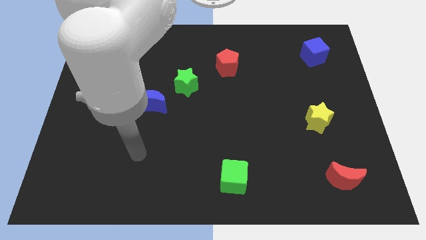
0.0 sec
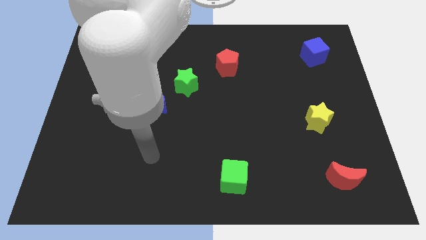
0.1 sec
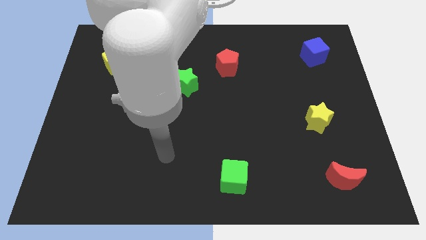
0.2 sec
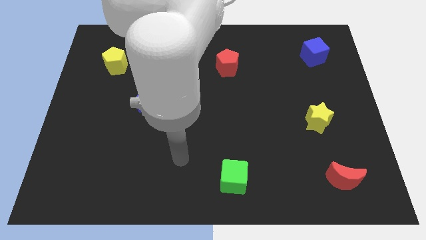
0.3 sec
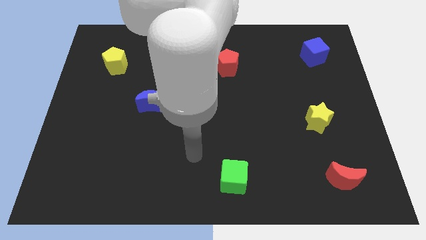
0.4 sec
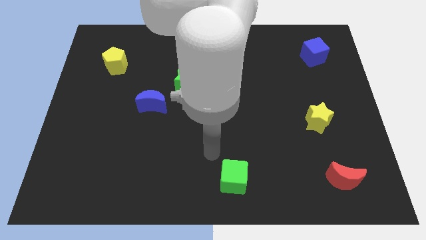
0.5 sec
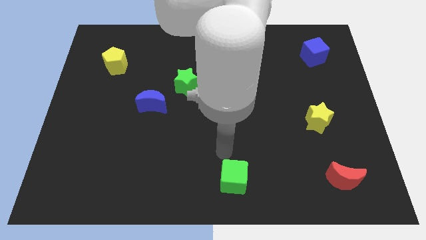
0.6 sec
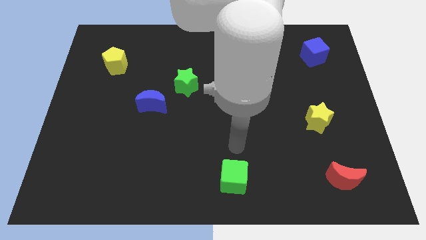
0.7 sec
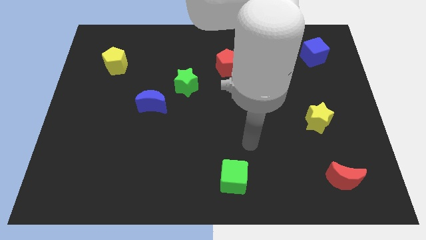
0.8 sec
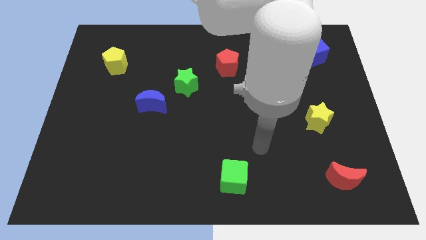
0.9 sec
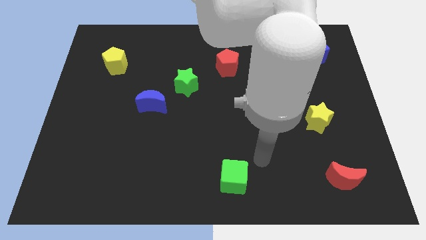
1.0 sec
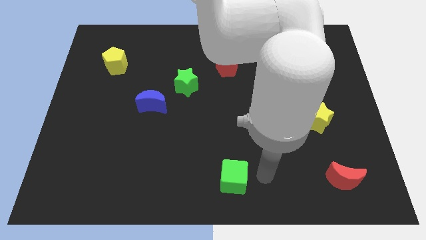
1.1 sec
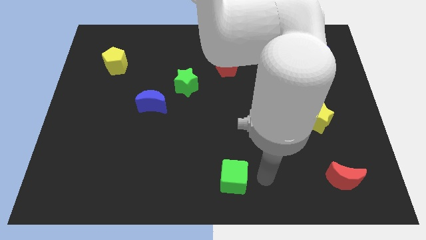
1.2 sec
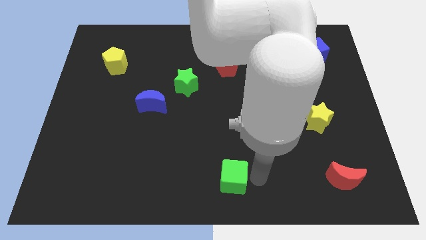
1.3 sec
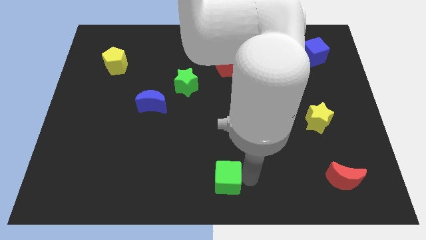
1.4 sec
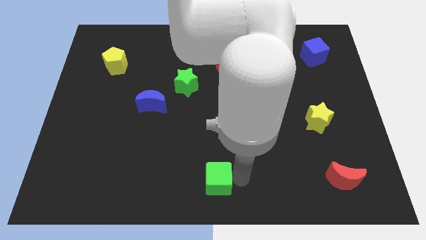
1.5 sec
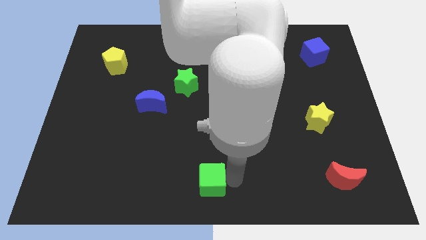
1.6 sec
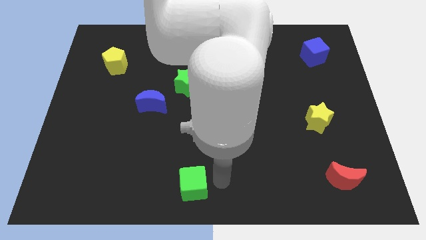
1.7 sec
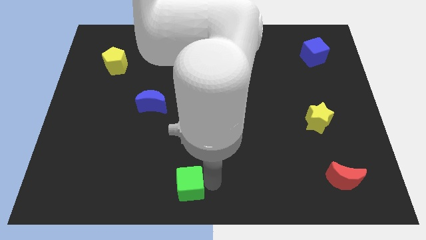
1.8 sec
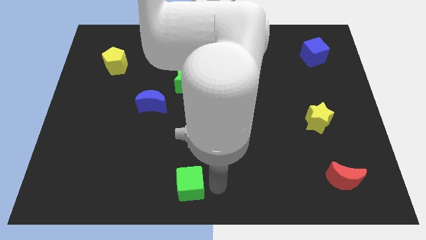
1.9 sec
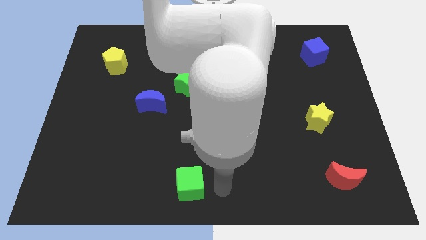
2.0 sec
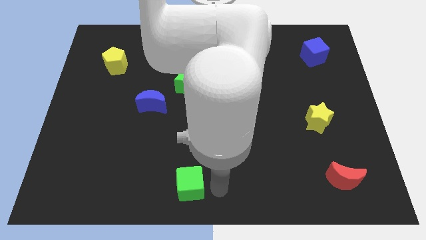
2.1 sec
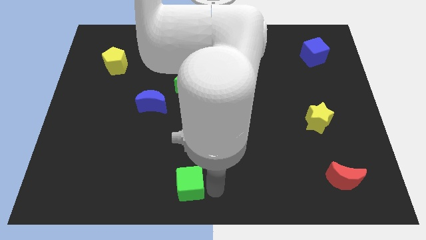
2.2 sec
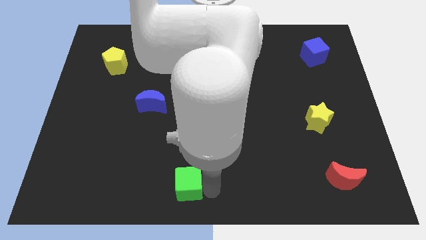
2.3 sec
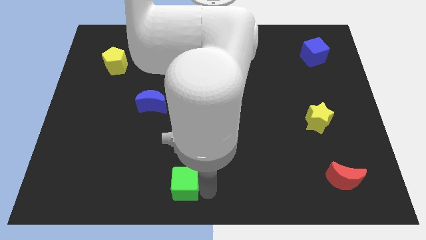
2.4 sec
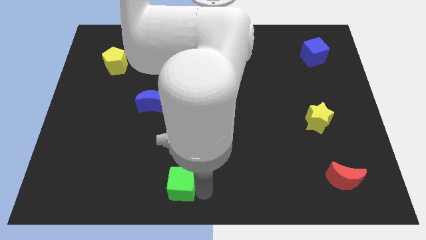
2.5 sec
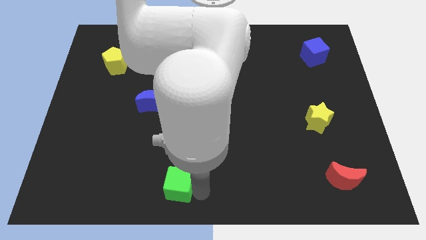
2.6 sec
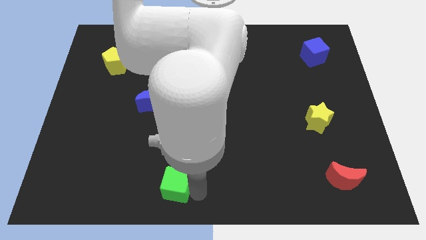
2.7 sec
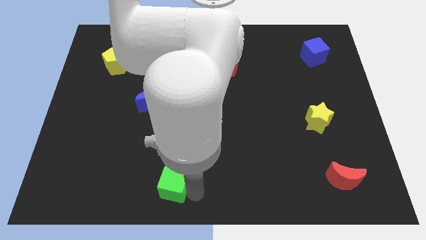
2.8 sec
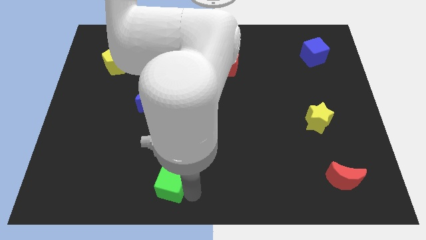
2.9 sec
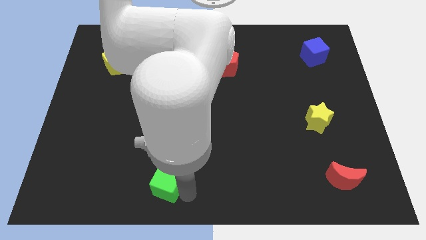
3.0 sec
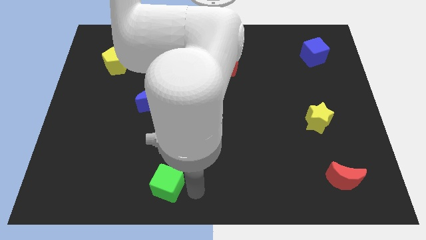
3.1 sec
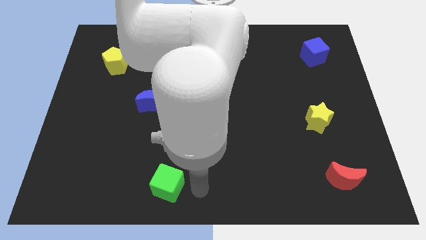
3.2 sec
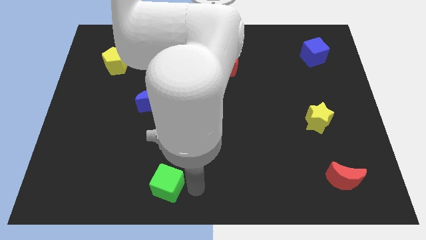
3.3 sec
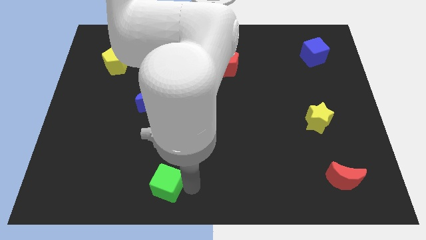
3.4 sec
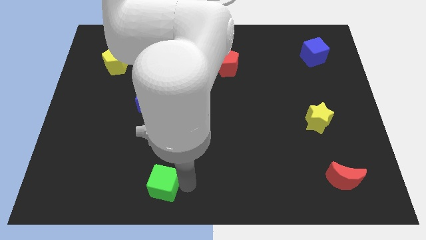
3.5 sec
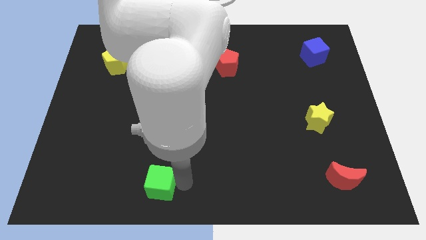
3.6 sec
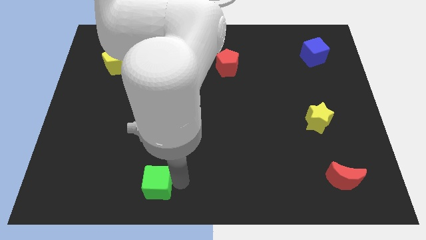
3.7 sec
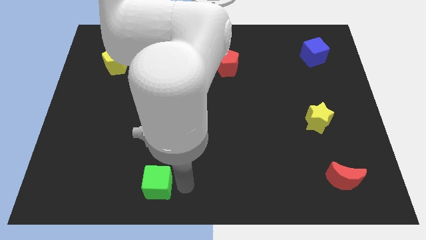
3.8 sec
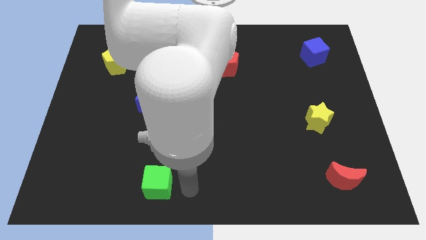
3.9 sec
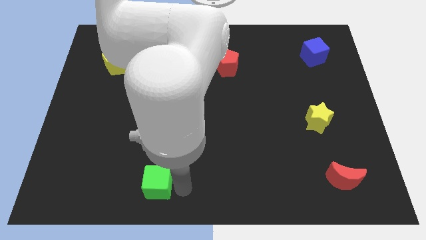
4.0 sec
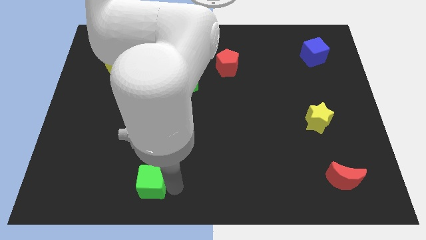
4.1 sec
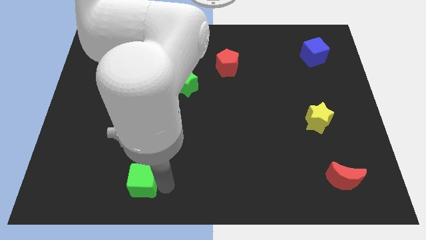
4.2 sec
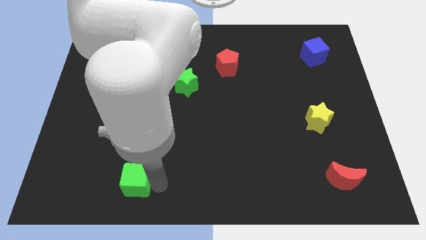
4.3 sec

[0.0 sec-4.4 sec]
move the green cube to the left

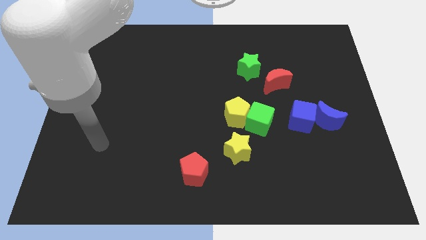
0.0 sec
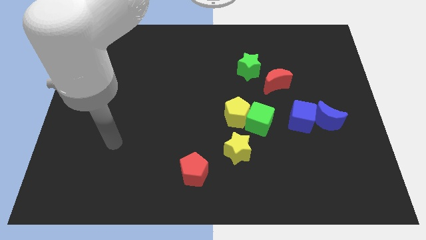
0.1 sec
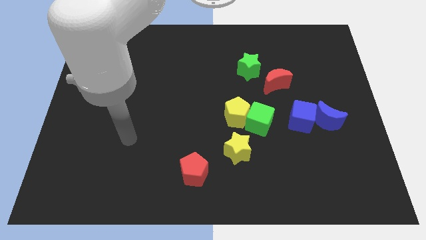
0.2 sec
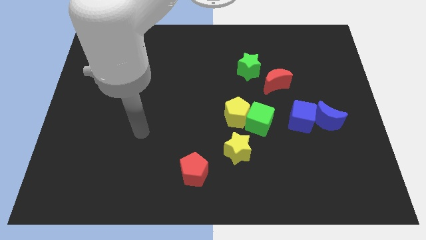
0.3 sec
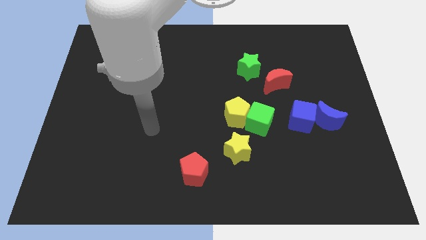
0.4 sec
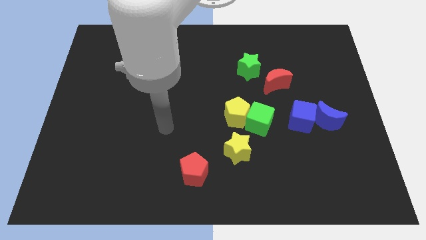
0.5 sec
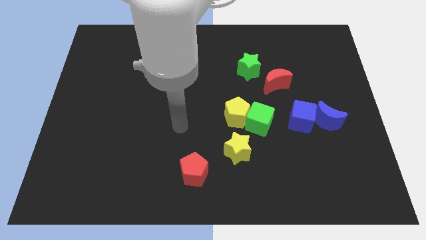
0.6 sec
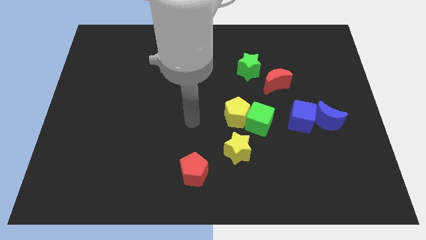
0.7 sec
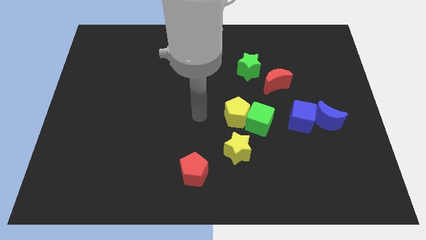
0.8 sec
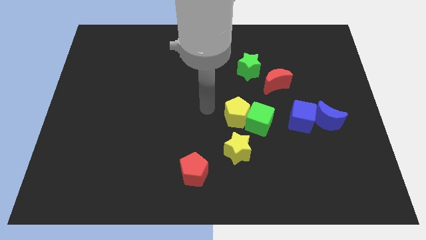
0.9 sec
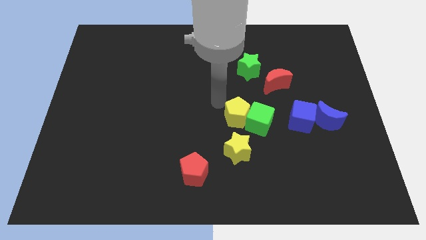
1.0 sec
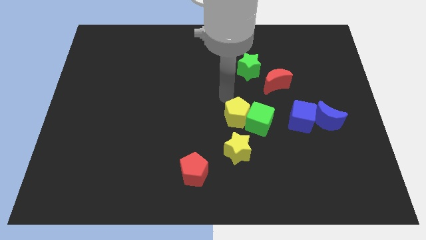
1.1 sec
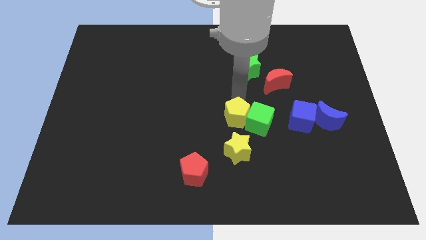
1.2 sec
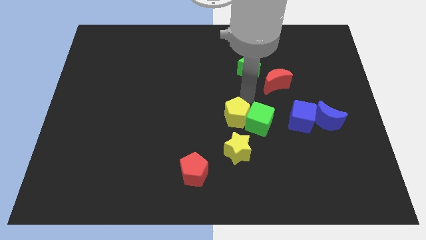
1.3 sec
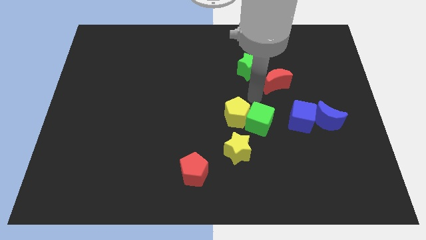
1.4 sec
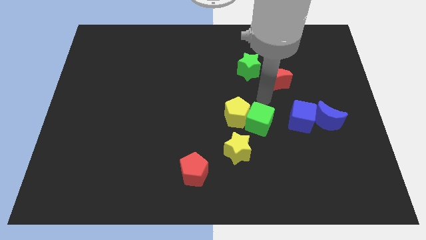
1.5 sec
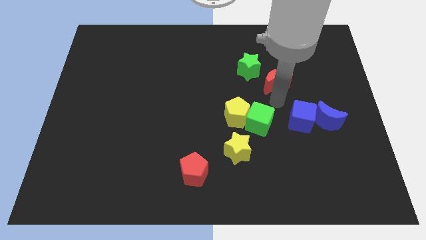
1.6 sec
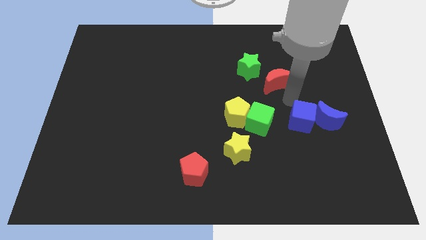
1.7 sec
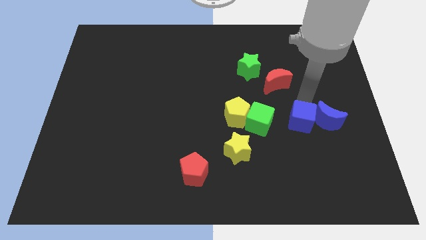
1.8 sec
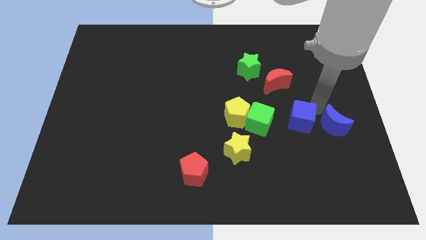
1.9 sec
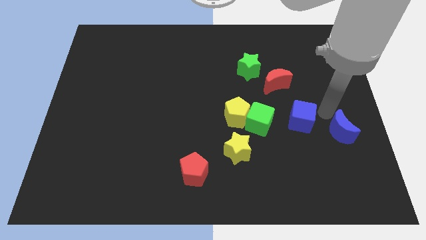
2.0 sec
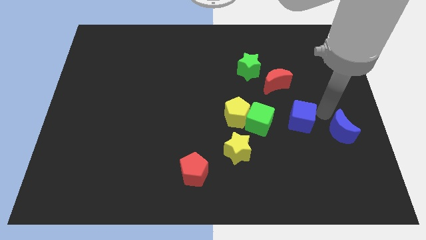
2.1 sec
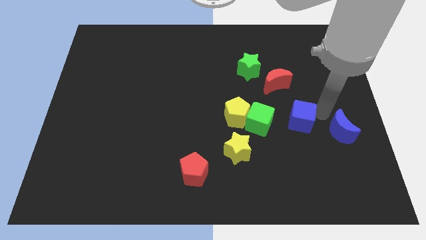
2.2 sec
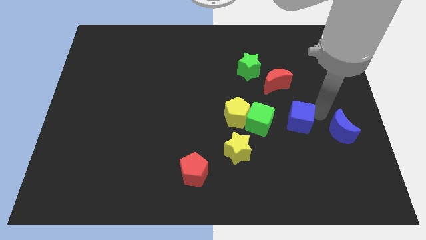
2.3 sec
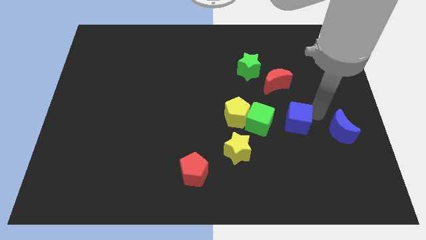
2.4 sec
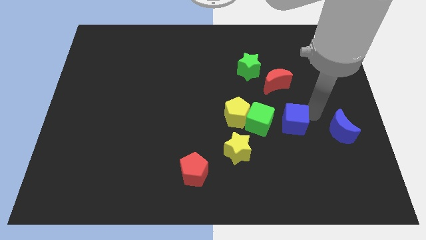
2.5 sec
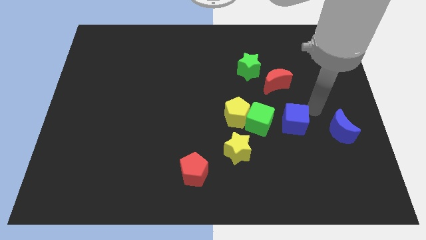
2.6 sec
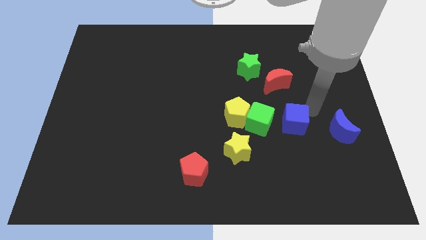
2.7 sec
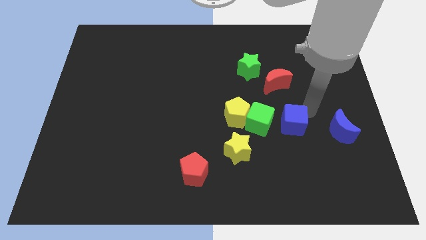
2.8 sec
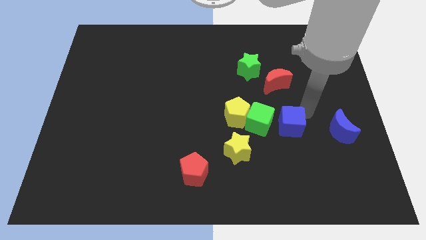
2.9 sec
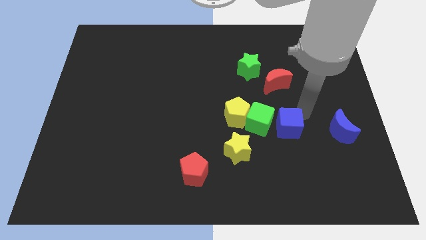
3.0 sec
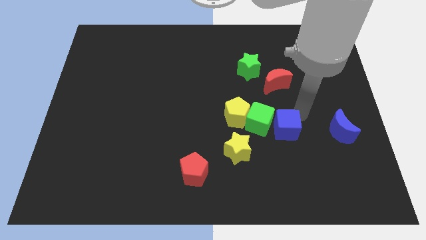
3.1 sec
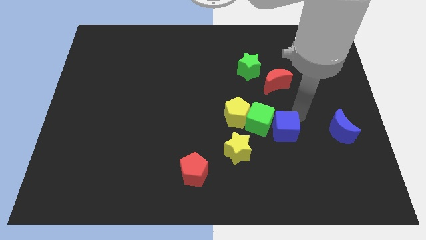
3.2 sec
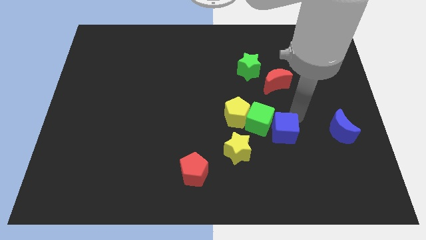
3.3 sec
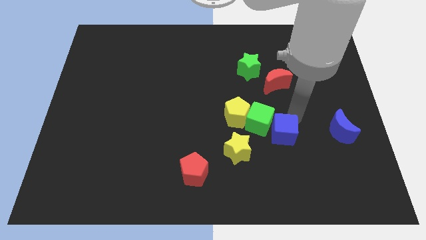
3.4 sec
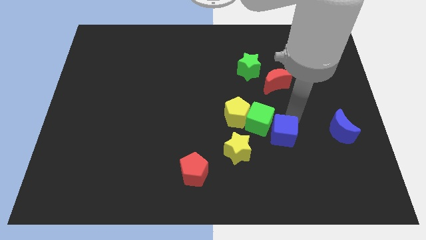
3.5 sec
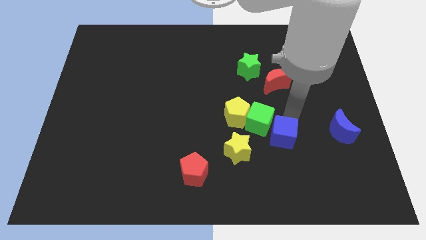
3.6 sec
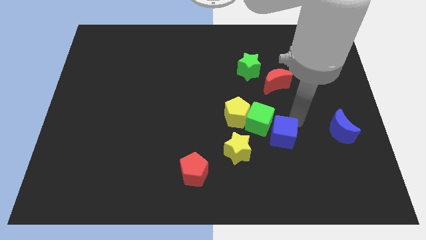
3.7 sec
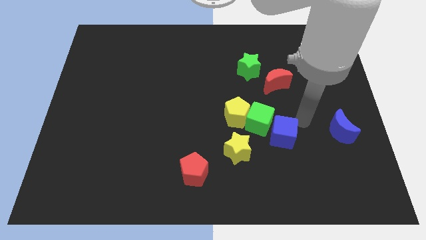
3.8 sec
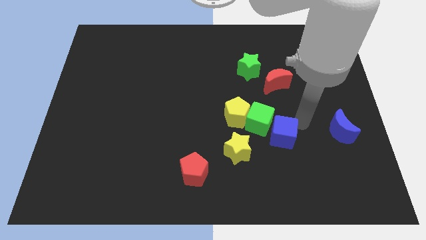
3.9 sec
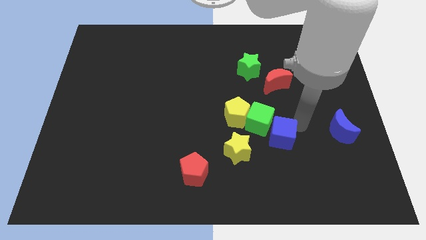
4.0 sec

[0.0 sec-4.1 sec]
slightly move the blue cube downwards and left diagonally
